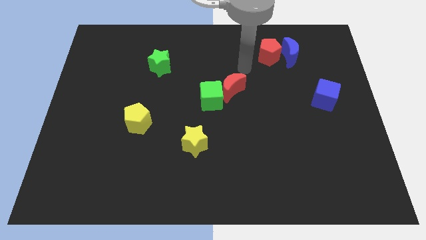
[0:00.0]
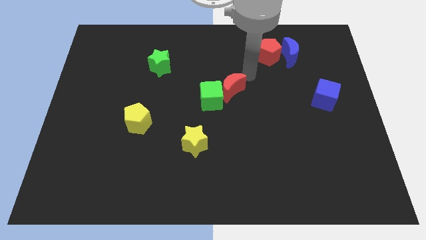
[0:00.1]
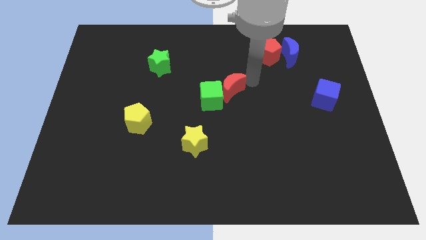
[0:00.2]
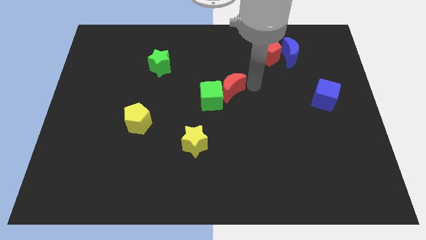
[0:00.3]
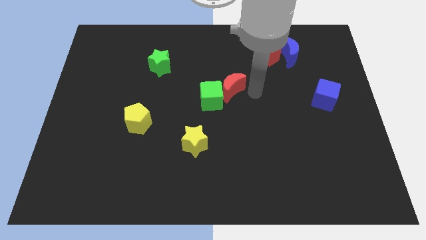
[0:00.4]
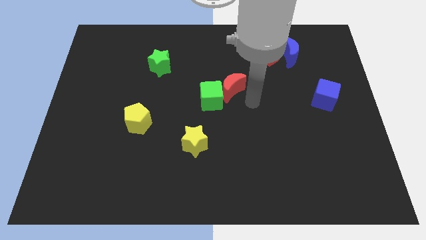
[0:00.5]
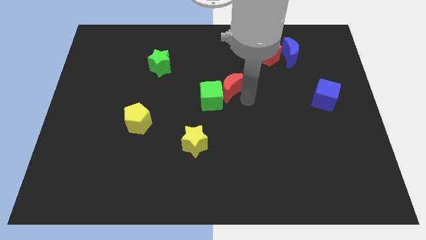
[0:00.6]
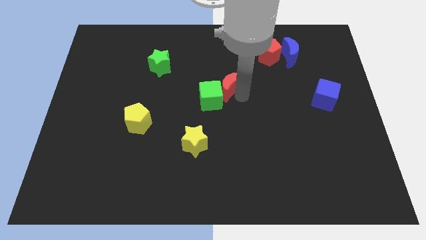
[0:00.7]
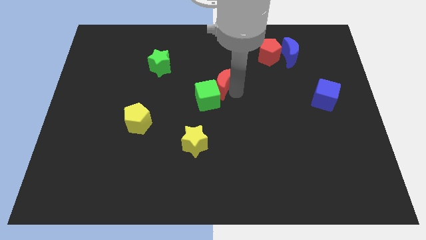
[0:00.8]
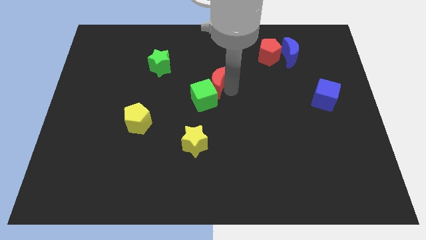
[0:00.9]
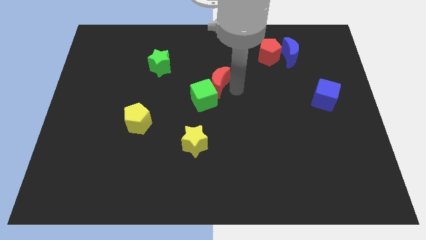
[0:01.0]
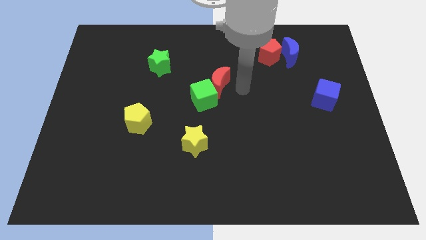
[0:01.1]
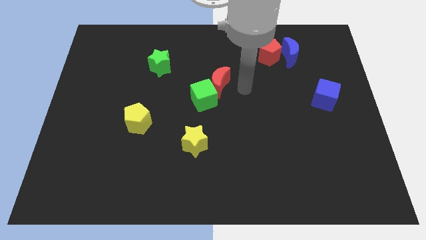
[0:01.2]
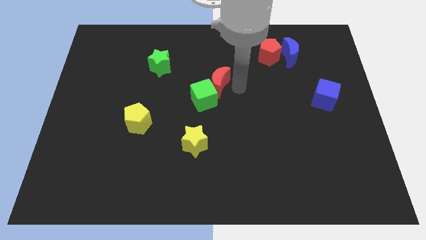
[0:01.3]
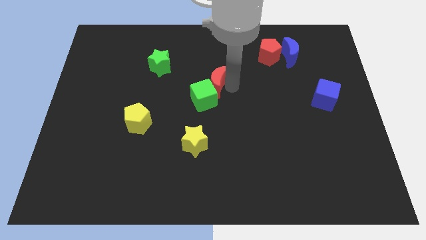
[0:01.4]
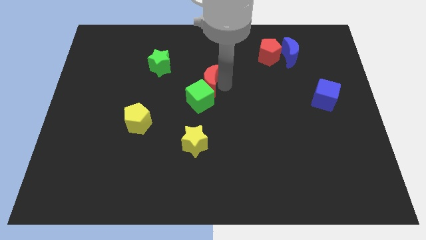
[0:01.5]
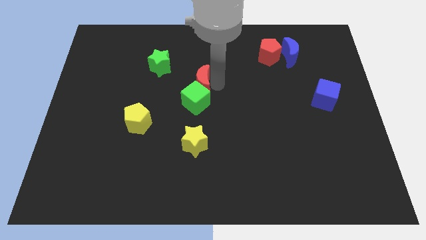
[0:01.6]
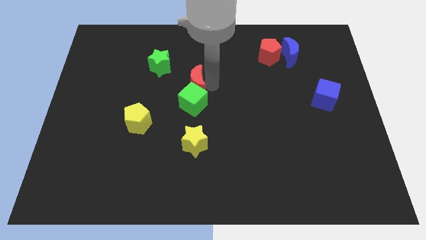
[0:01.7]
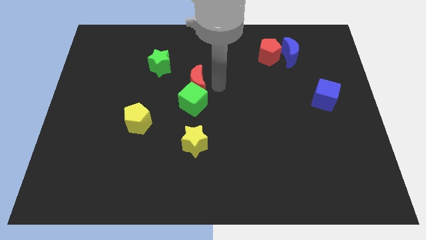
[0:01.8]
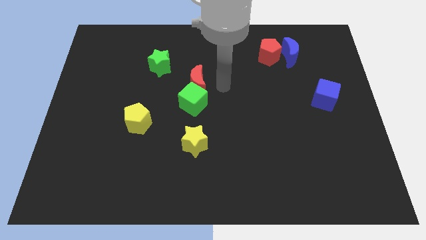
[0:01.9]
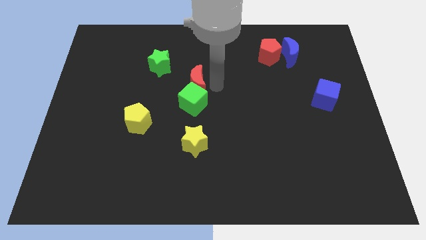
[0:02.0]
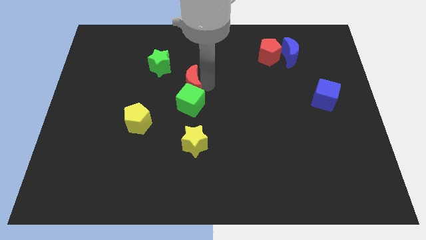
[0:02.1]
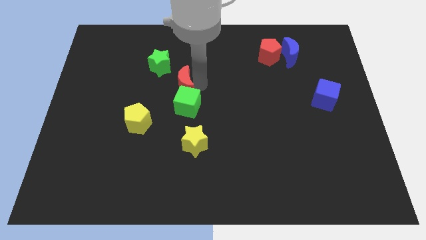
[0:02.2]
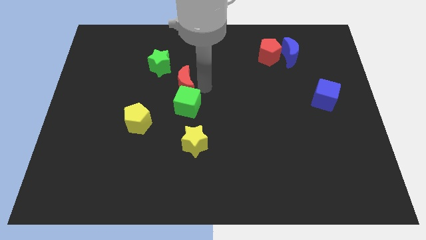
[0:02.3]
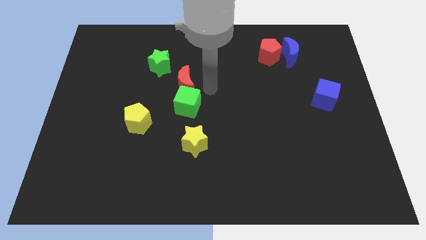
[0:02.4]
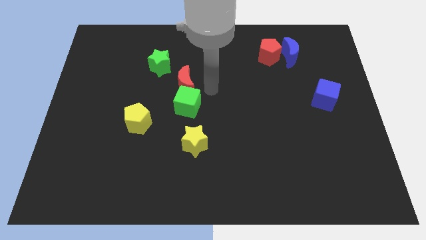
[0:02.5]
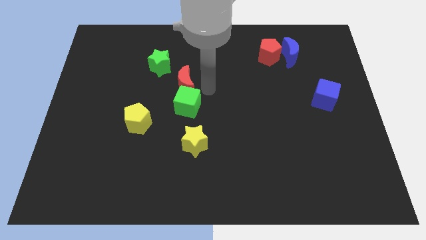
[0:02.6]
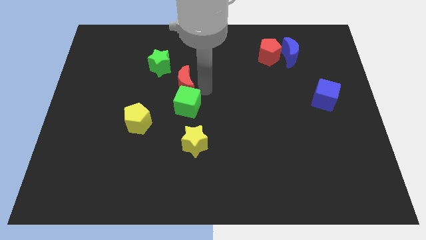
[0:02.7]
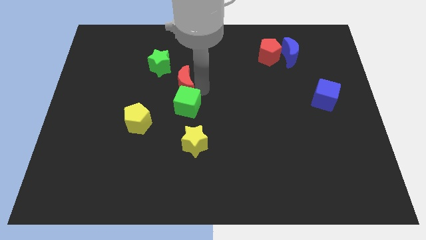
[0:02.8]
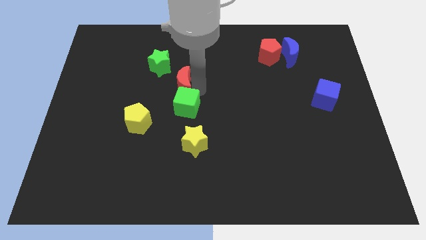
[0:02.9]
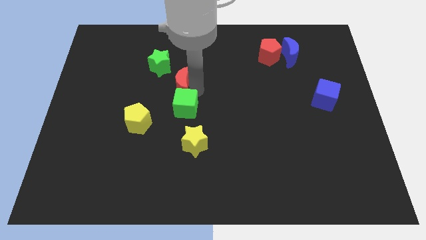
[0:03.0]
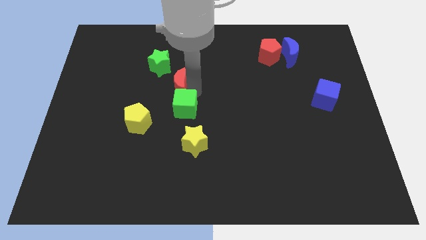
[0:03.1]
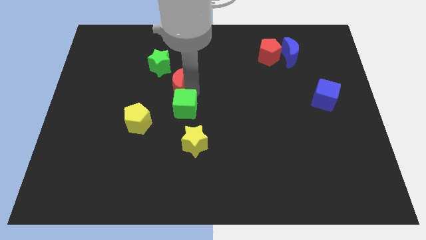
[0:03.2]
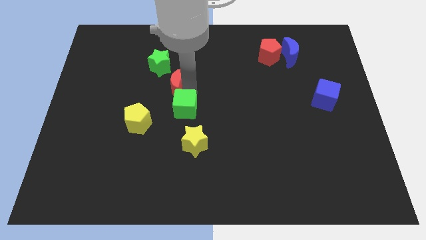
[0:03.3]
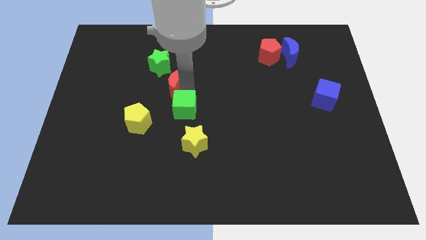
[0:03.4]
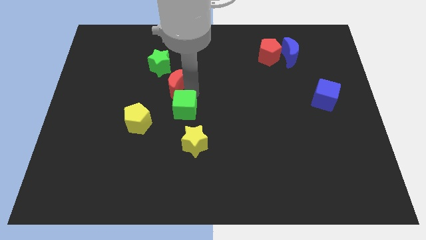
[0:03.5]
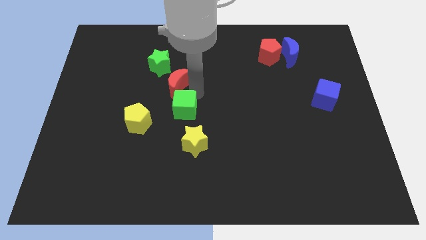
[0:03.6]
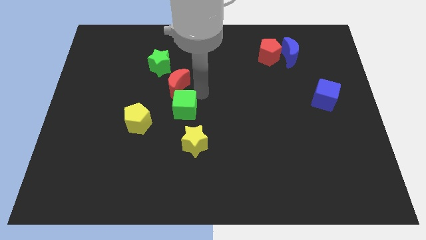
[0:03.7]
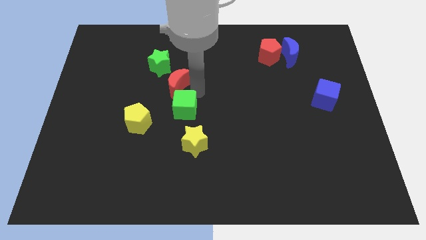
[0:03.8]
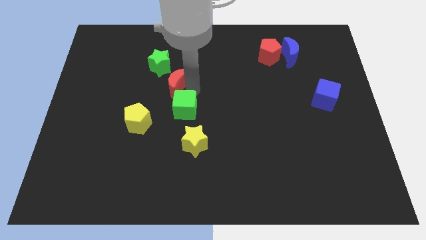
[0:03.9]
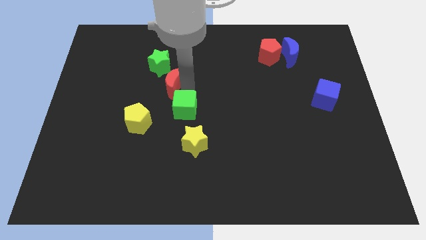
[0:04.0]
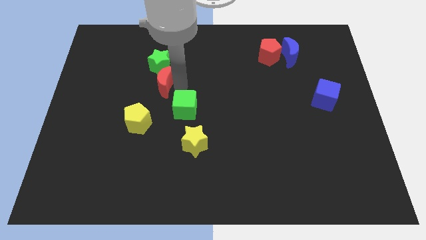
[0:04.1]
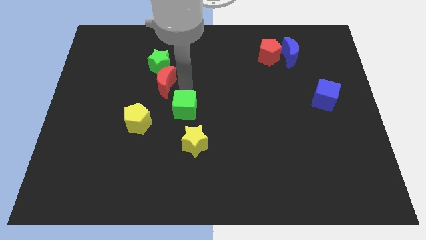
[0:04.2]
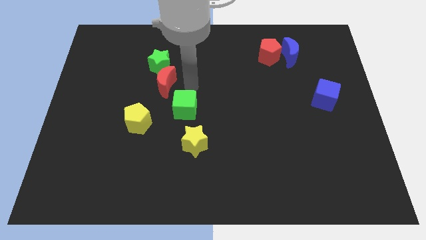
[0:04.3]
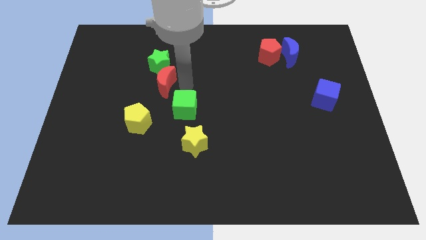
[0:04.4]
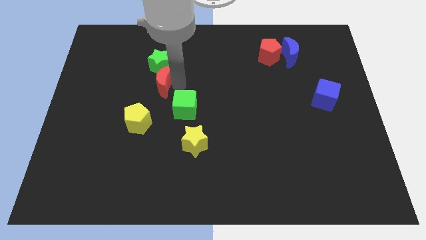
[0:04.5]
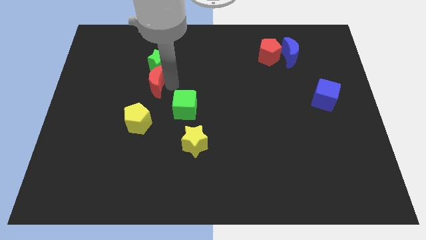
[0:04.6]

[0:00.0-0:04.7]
push the red moon diagonally down and to the left of the green star

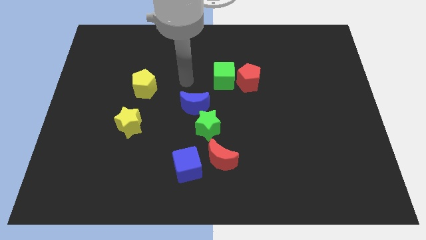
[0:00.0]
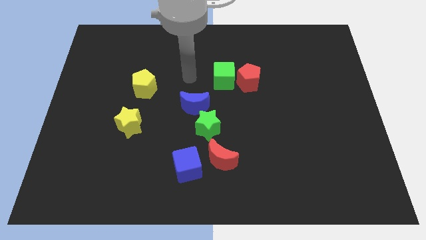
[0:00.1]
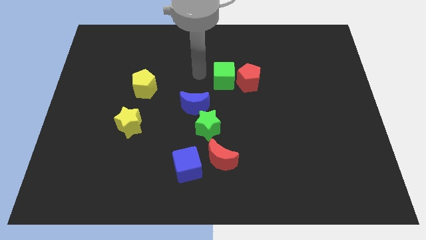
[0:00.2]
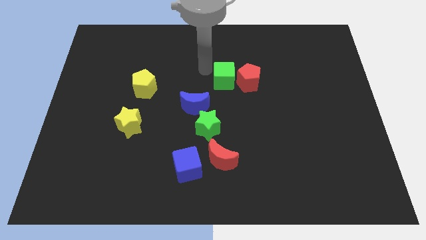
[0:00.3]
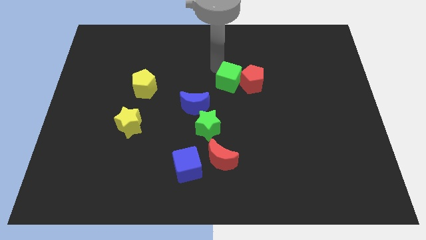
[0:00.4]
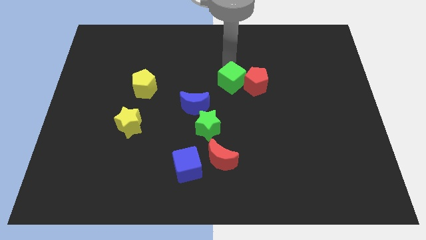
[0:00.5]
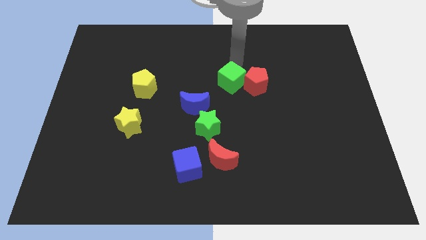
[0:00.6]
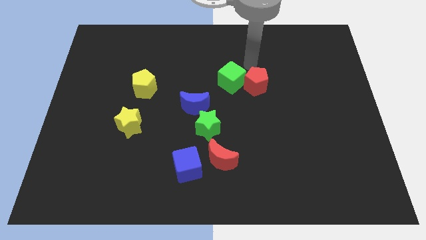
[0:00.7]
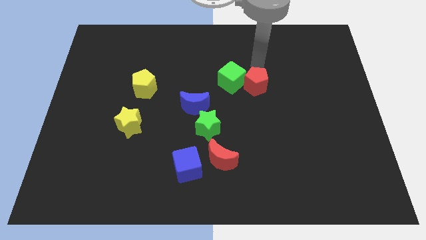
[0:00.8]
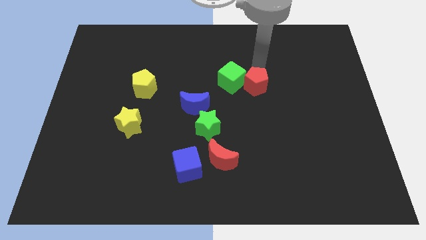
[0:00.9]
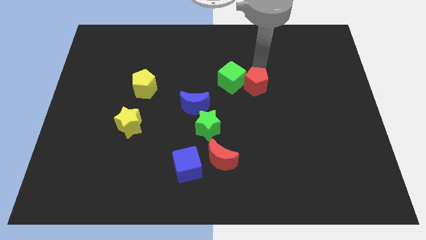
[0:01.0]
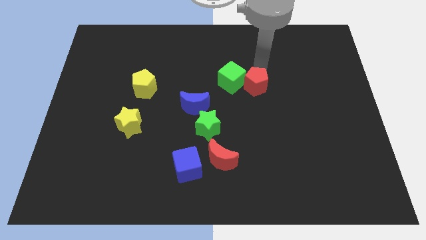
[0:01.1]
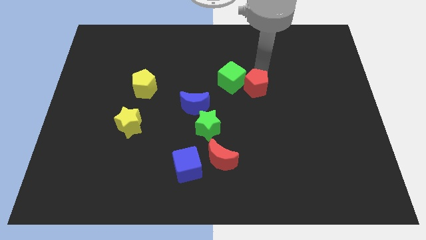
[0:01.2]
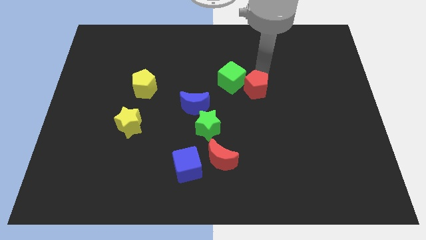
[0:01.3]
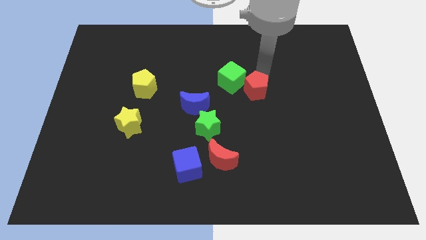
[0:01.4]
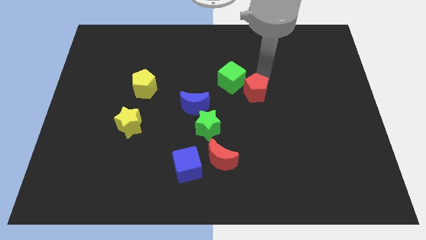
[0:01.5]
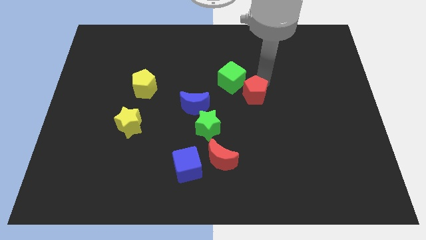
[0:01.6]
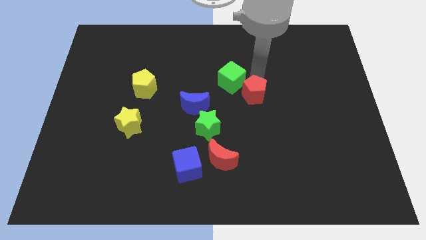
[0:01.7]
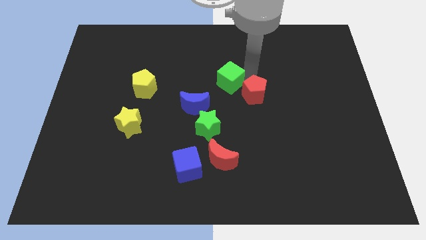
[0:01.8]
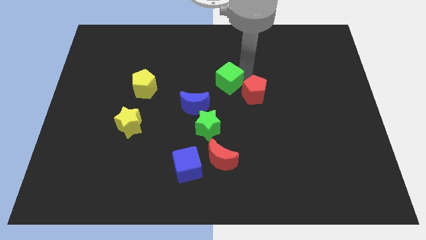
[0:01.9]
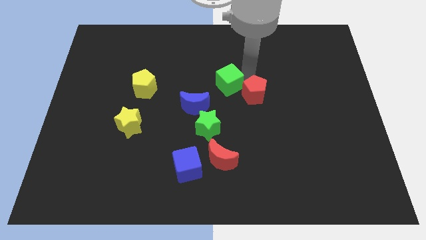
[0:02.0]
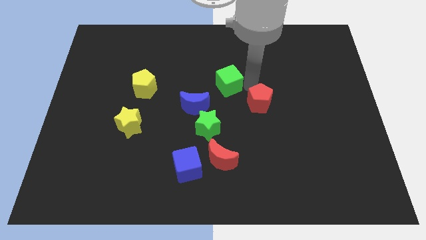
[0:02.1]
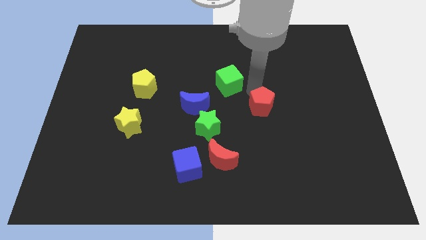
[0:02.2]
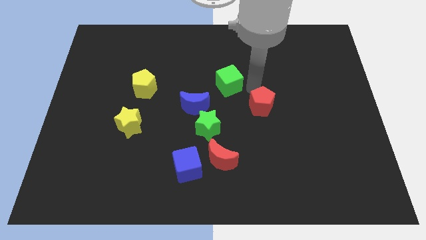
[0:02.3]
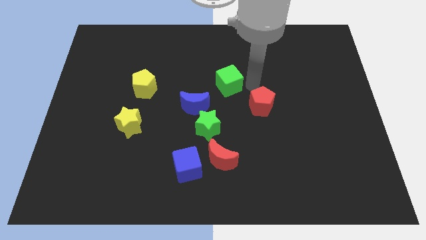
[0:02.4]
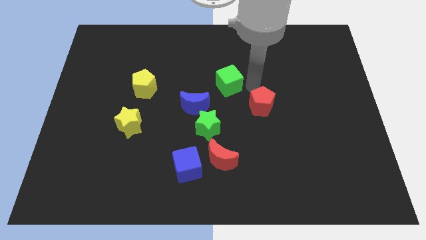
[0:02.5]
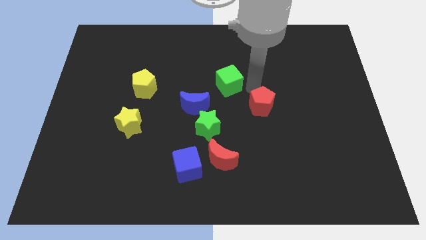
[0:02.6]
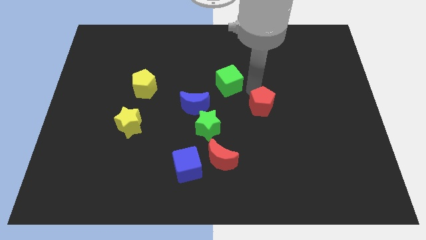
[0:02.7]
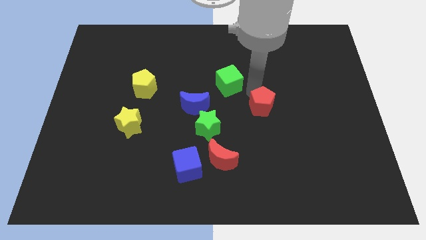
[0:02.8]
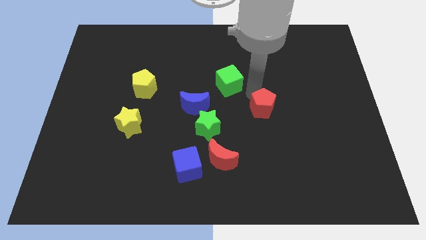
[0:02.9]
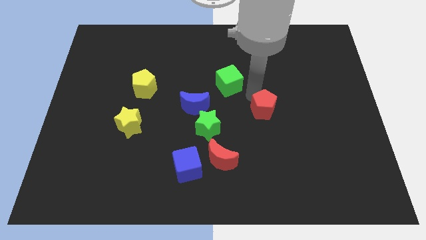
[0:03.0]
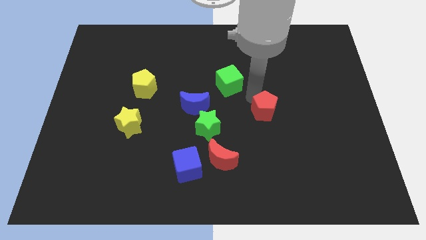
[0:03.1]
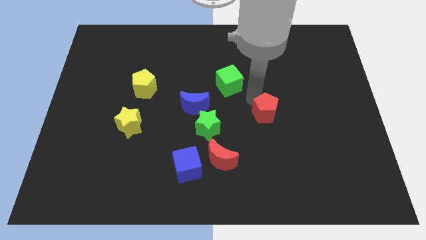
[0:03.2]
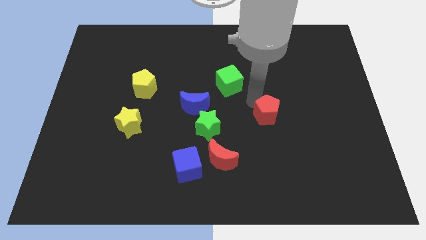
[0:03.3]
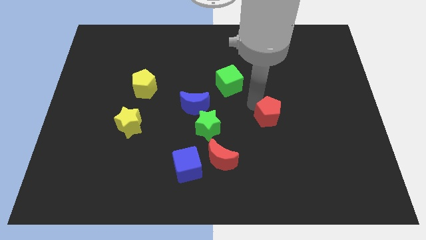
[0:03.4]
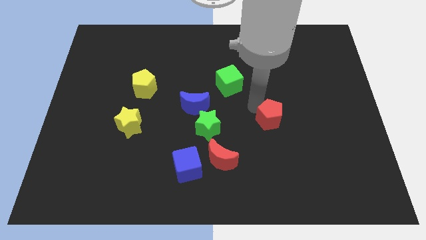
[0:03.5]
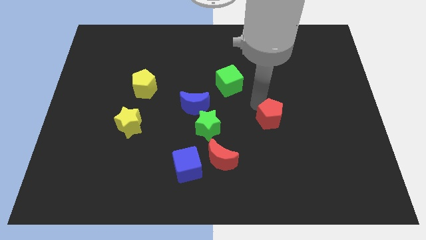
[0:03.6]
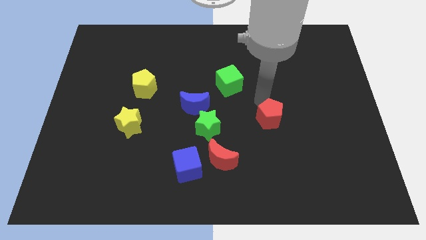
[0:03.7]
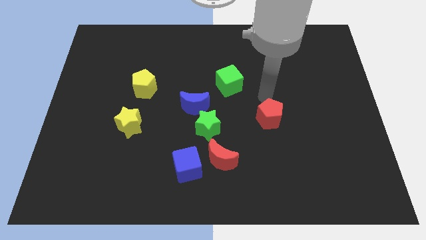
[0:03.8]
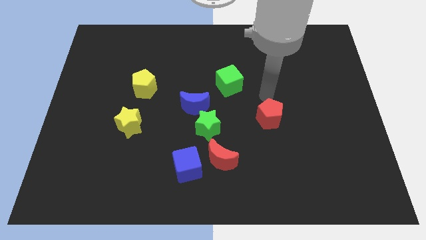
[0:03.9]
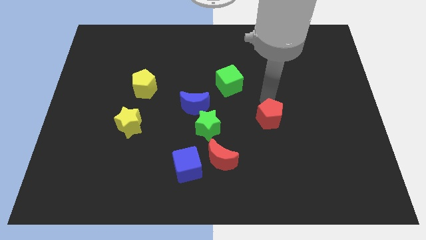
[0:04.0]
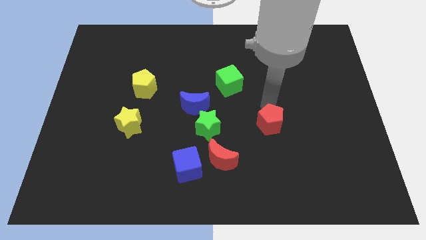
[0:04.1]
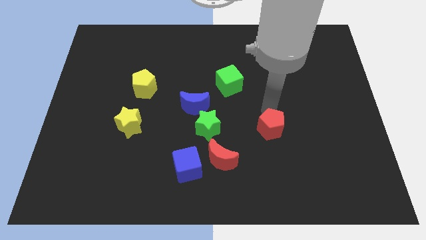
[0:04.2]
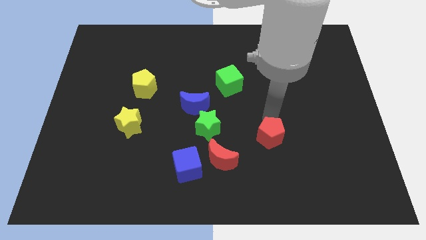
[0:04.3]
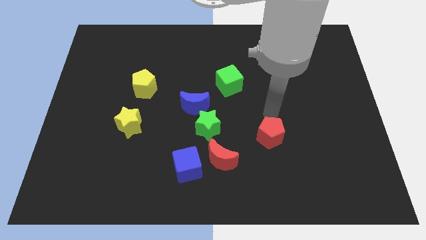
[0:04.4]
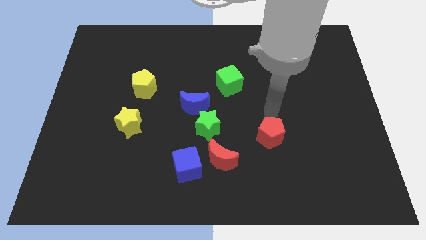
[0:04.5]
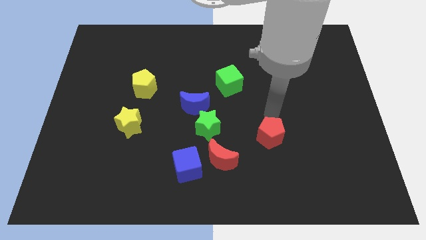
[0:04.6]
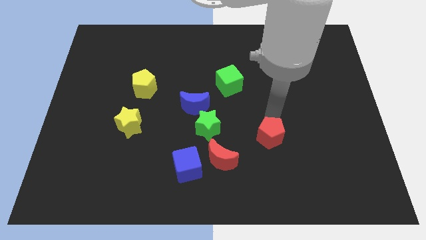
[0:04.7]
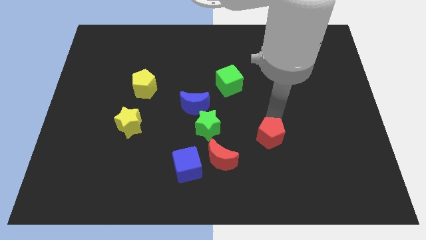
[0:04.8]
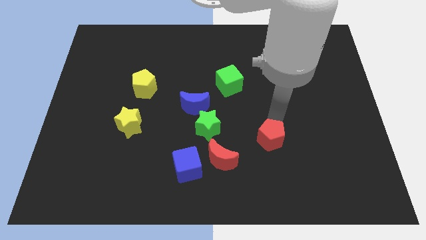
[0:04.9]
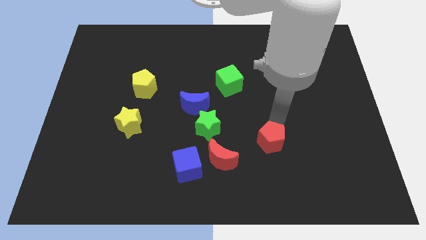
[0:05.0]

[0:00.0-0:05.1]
push the red pentagon to the right of the red moon
